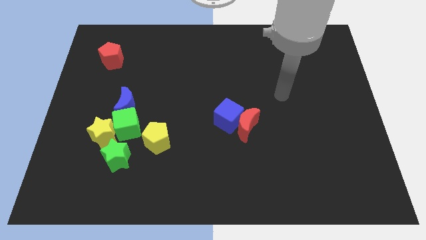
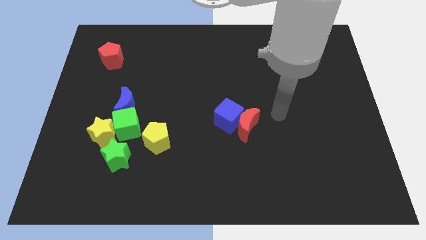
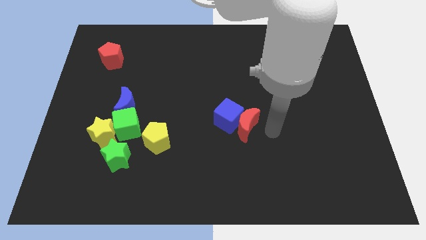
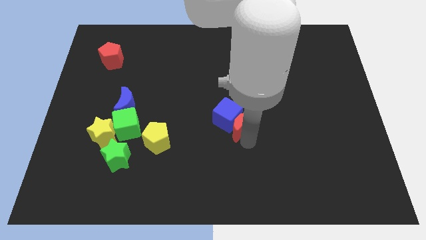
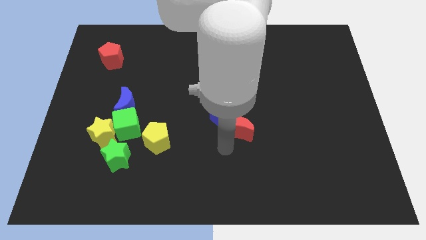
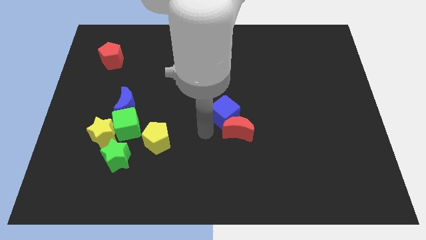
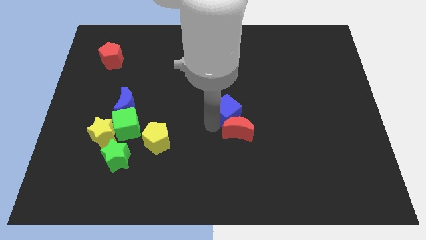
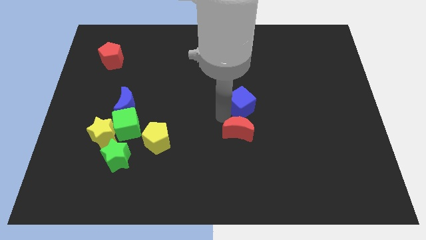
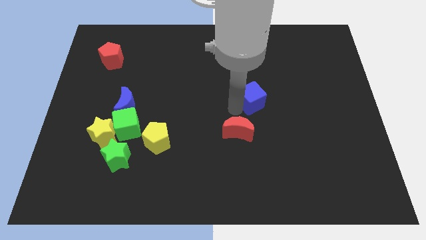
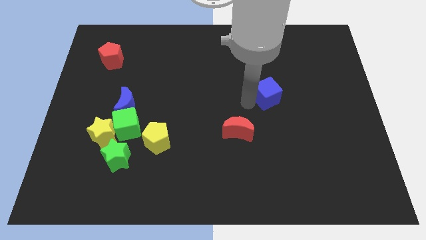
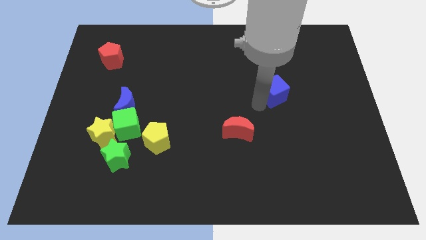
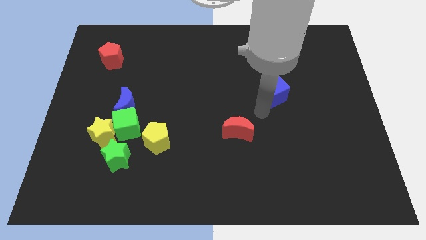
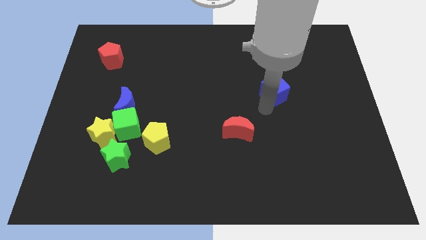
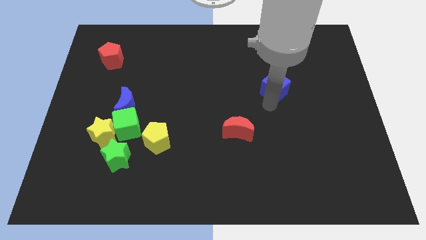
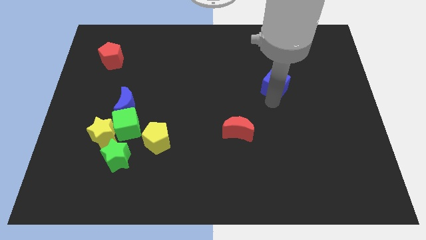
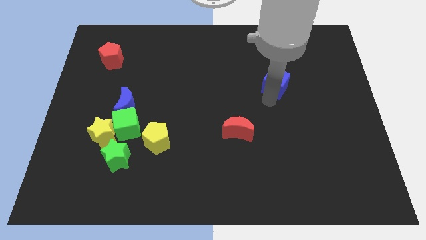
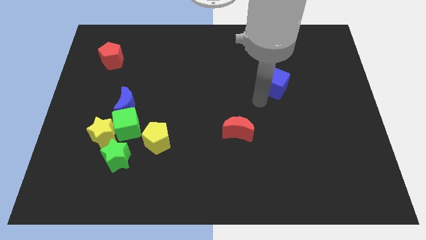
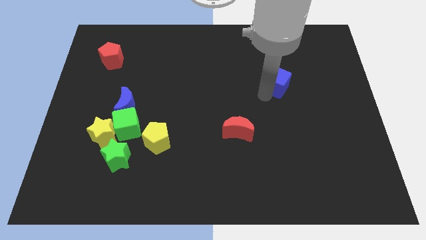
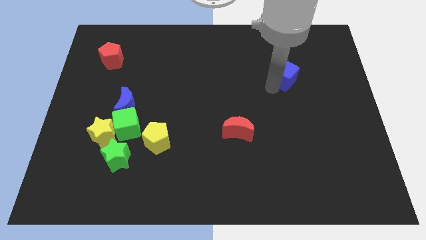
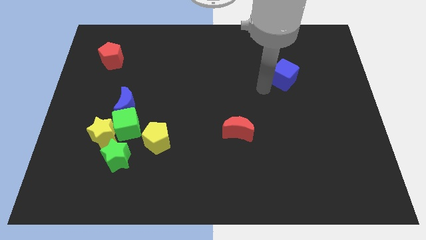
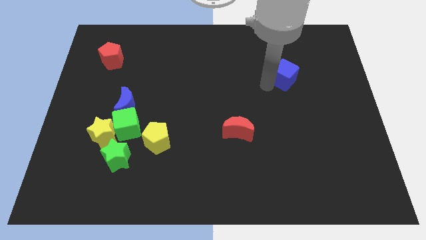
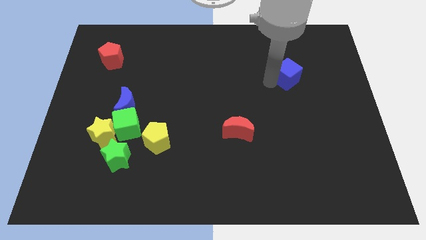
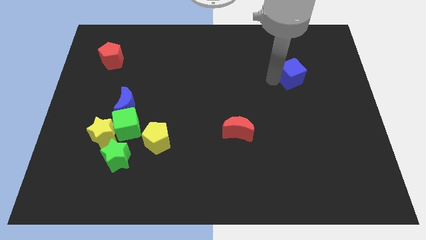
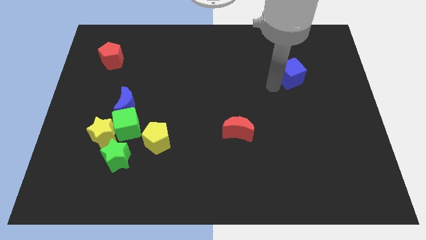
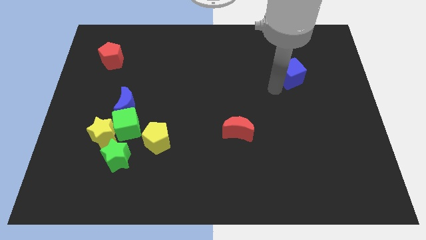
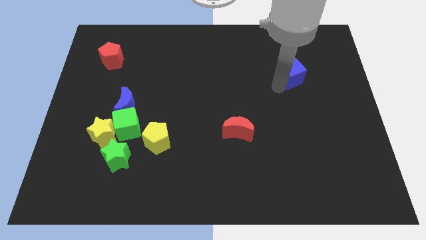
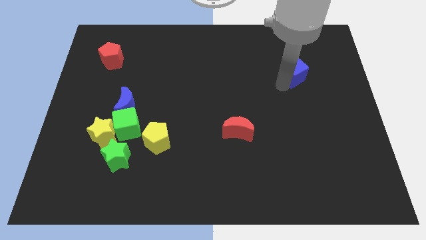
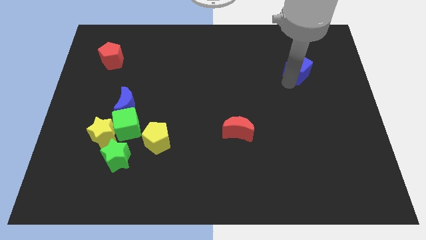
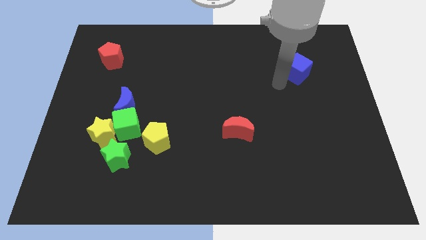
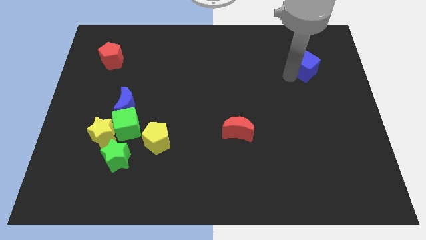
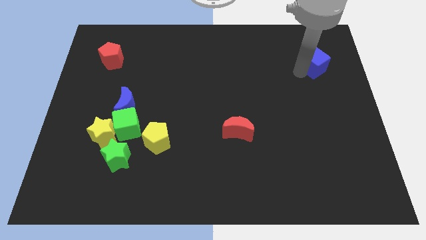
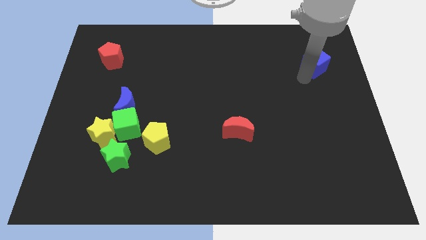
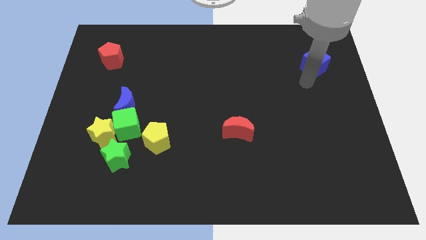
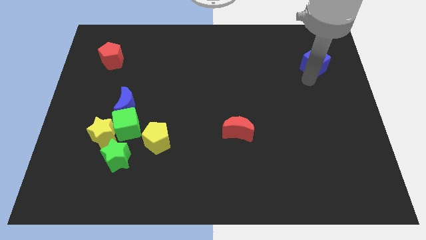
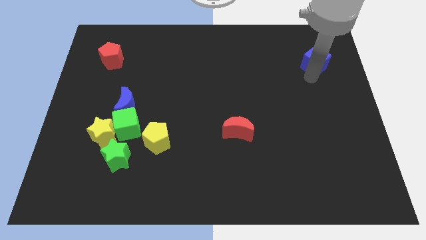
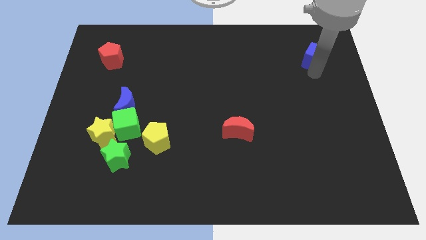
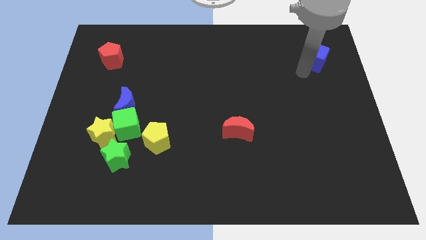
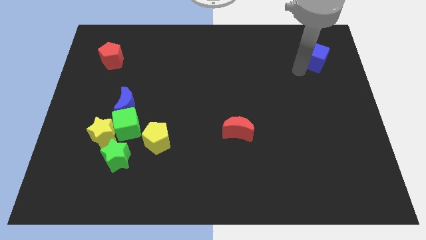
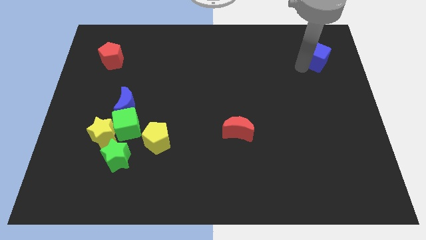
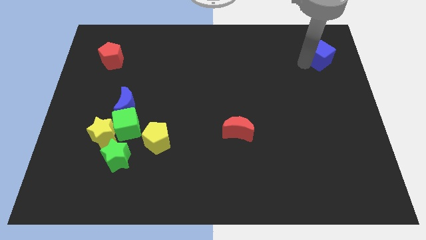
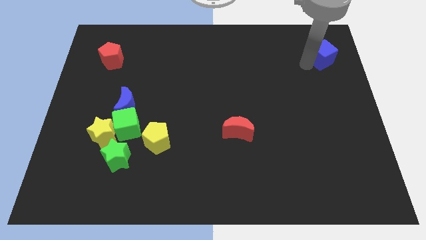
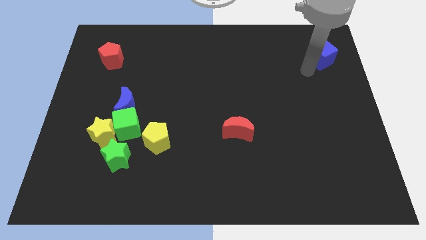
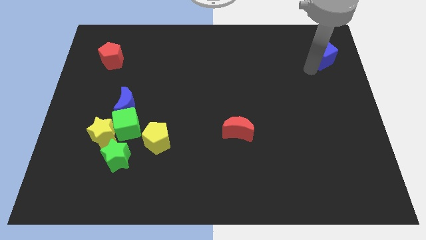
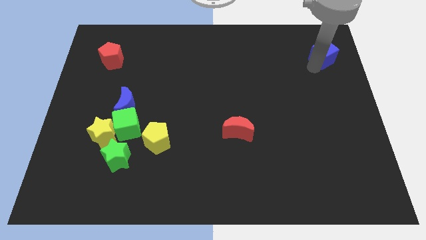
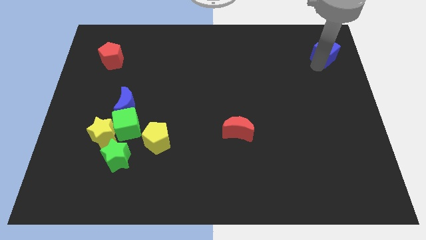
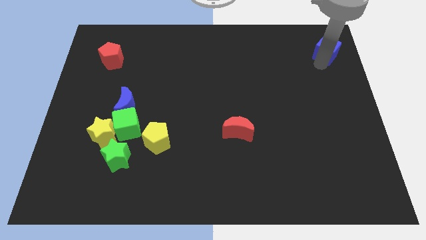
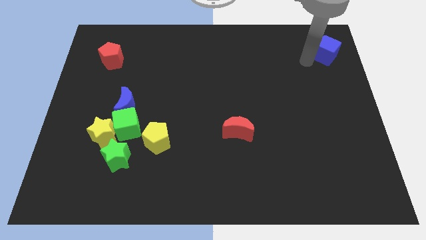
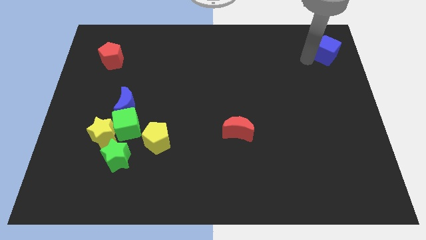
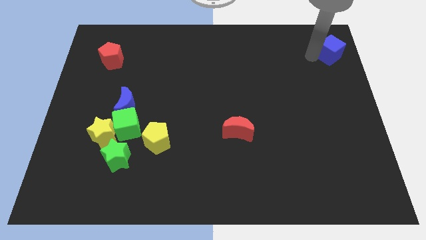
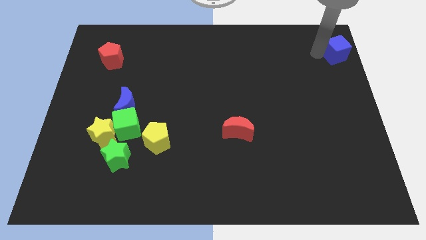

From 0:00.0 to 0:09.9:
put the blue cube to the top right corner

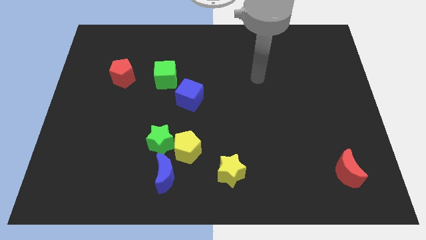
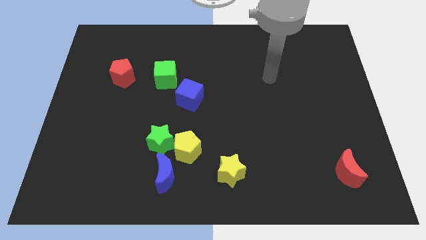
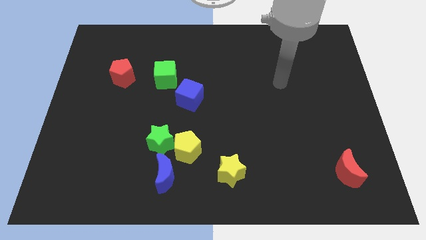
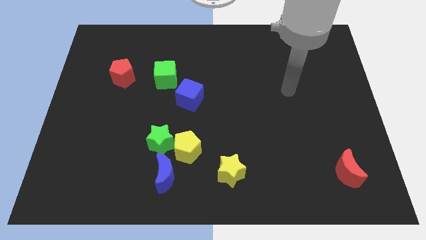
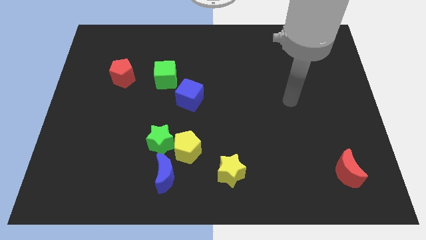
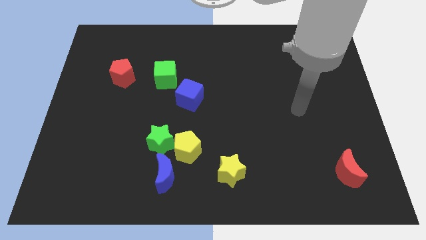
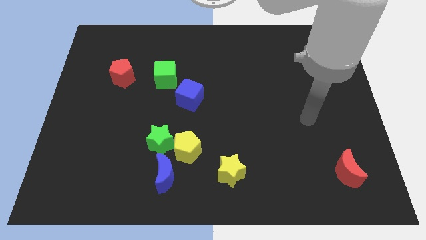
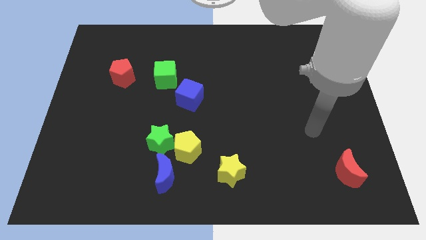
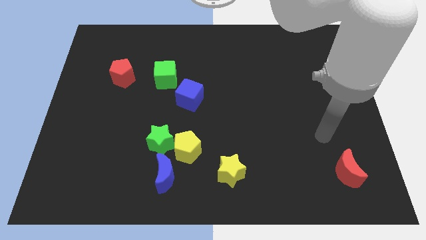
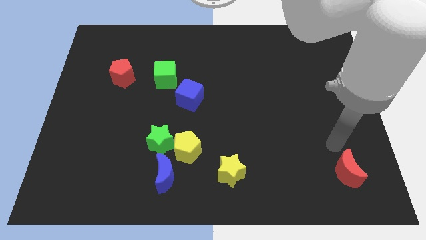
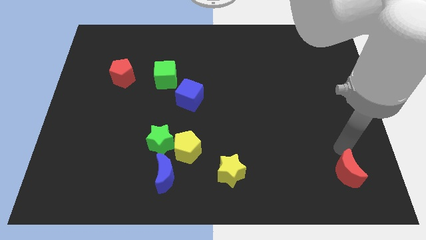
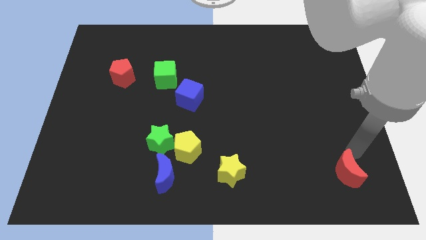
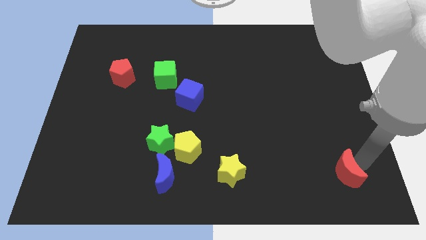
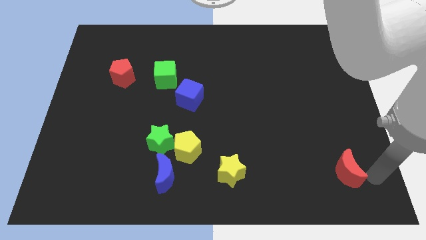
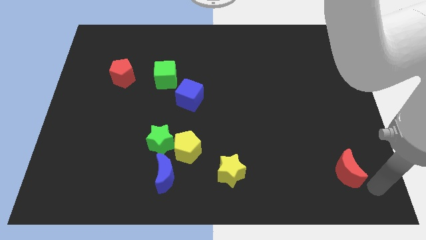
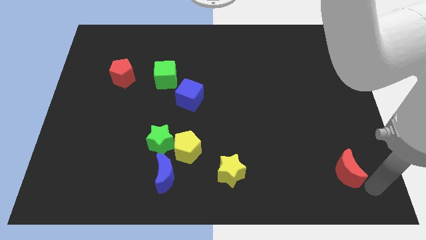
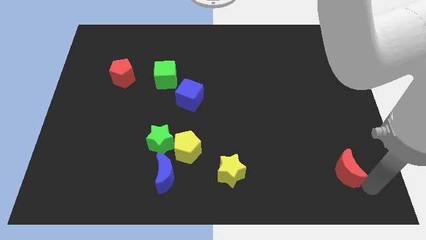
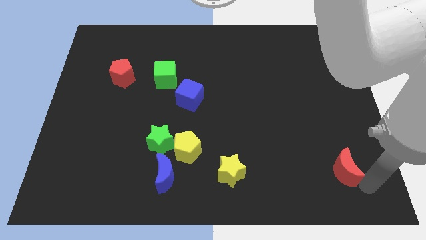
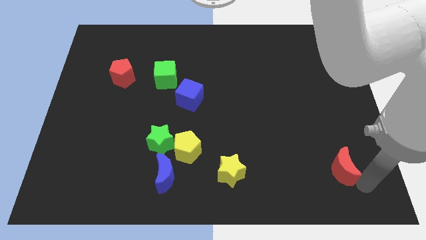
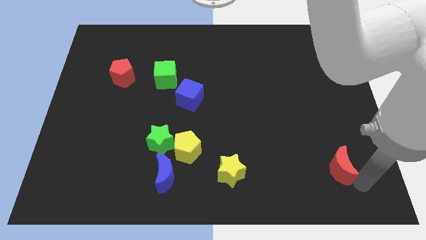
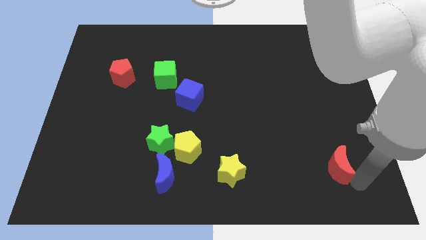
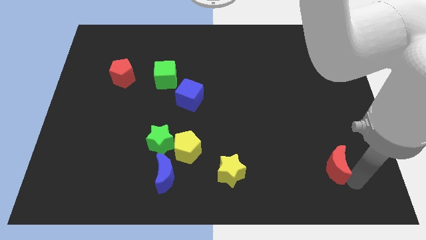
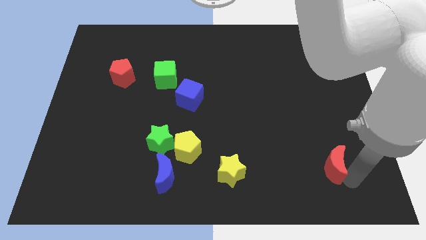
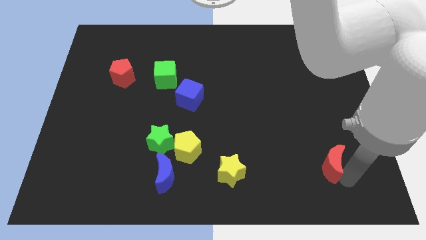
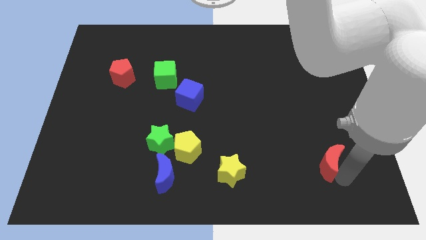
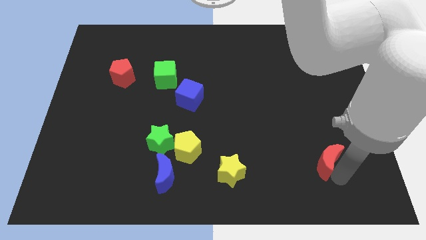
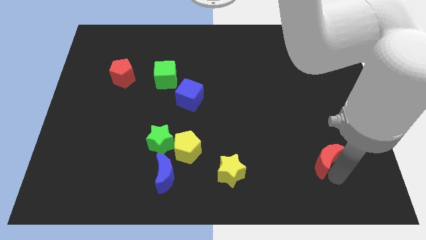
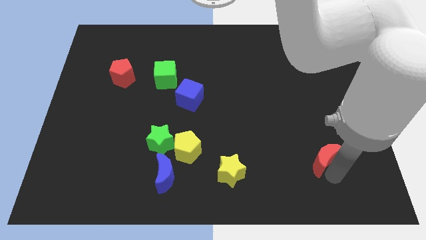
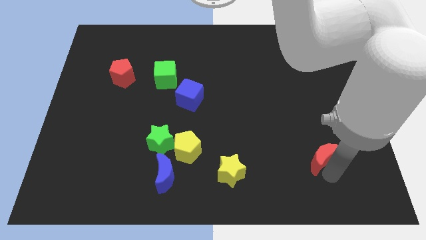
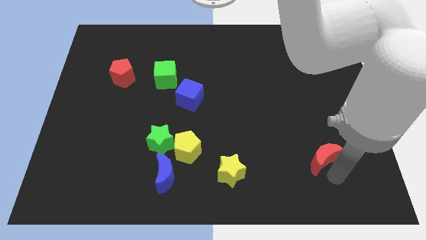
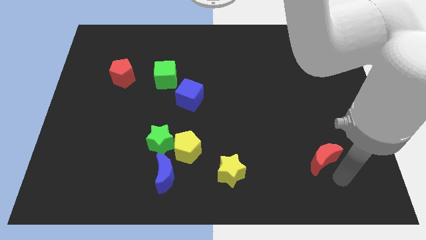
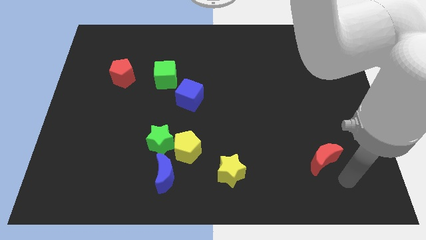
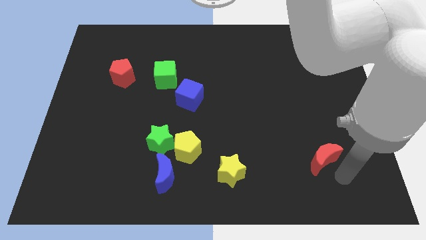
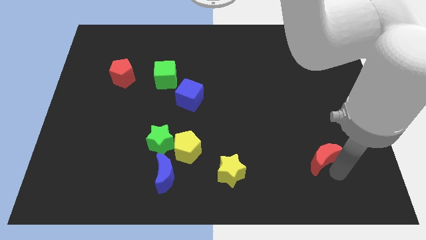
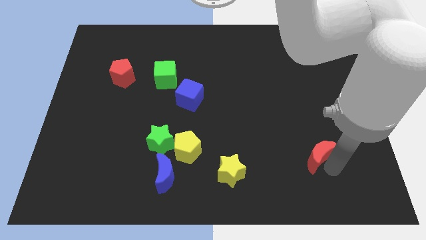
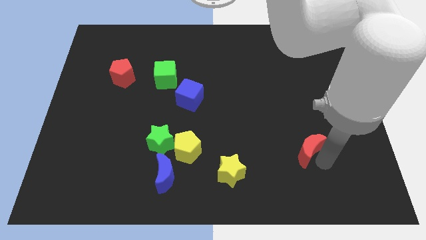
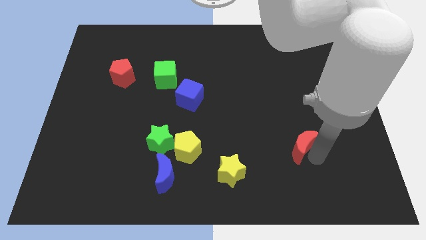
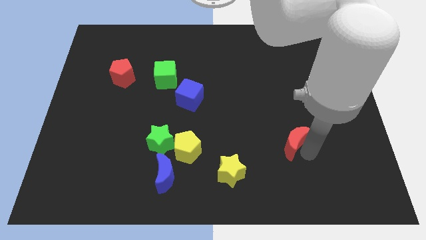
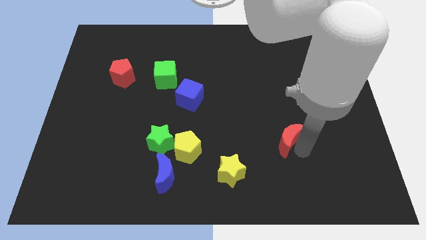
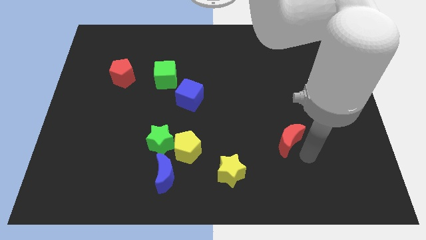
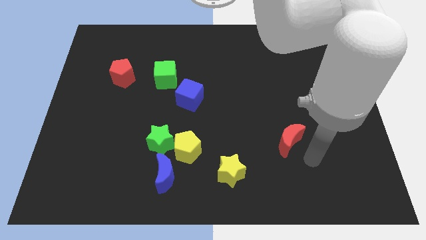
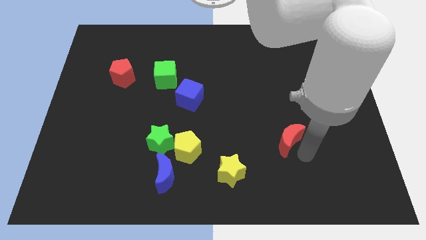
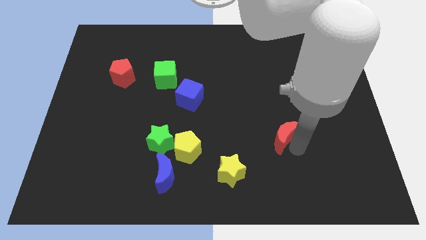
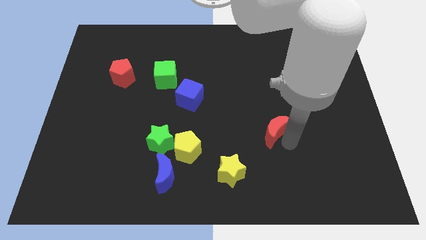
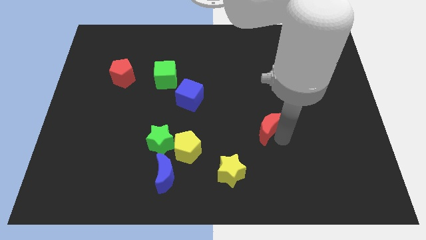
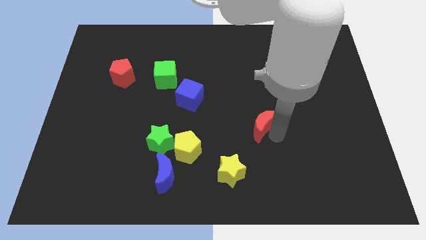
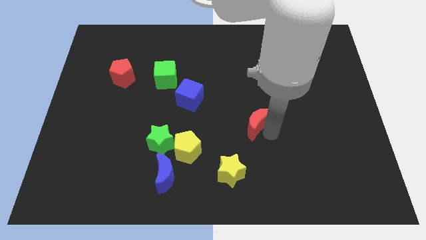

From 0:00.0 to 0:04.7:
push the red moon to the middle
